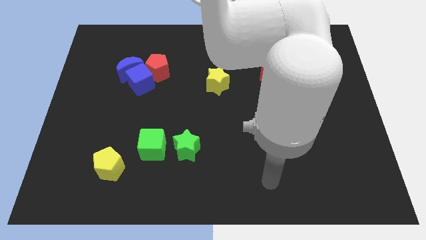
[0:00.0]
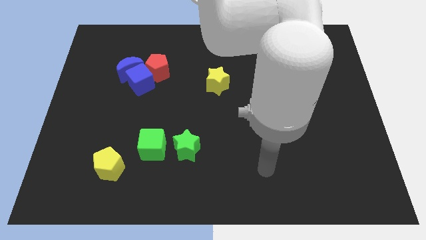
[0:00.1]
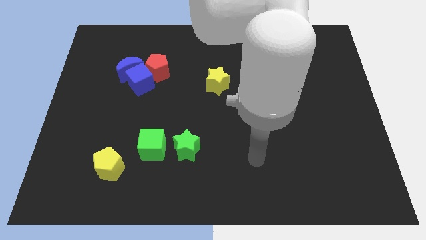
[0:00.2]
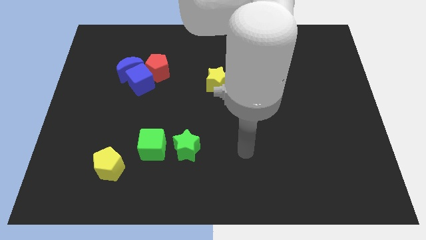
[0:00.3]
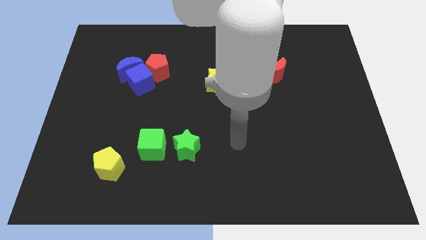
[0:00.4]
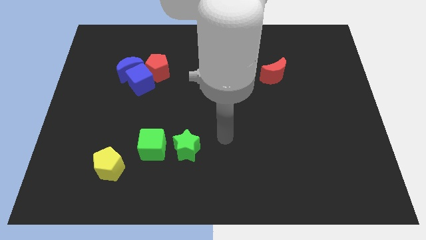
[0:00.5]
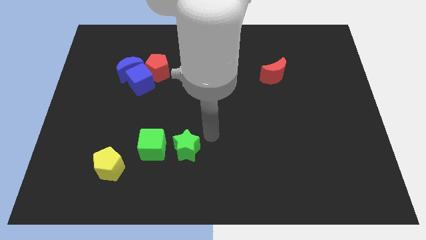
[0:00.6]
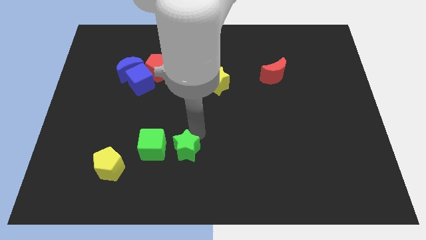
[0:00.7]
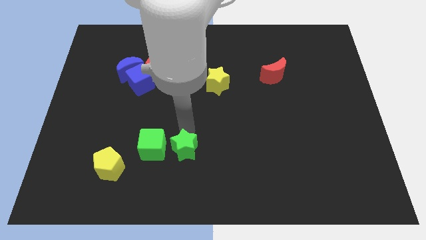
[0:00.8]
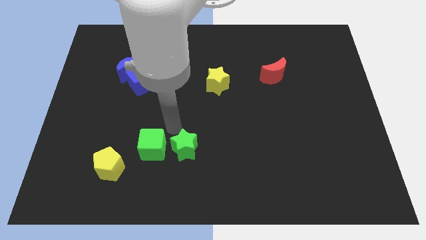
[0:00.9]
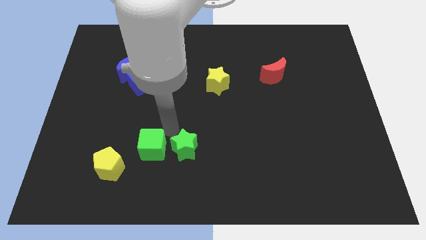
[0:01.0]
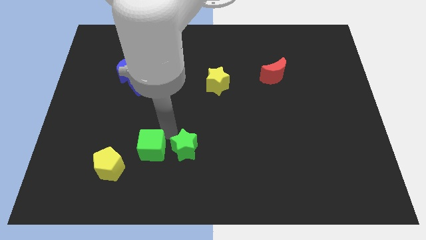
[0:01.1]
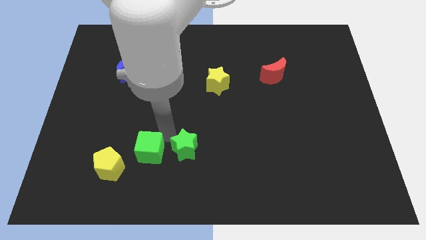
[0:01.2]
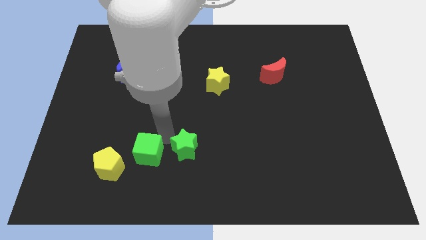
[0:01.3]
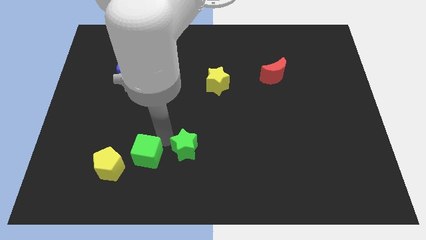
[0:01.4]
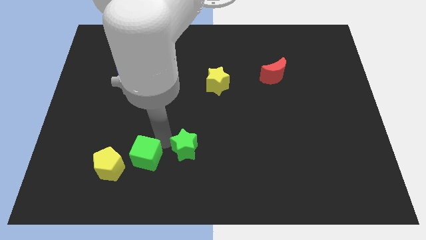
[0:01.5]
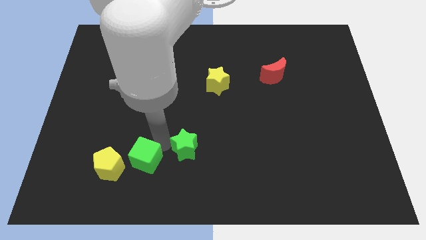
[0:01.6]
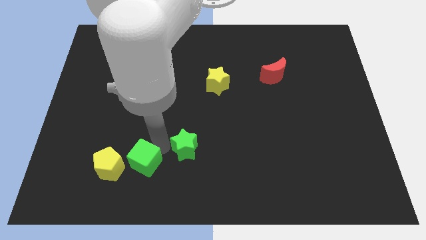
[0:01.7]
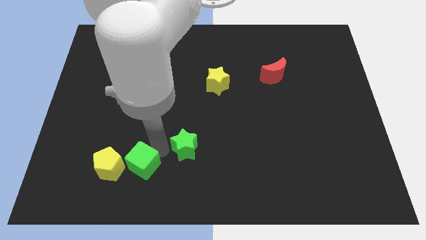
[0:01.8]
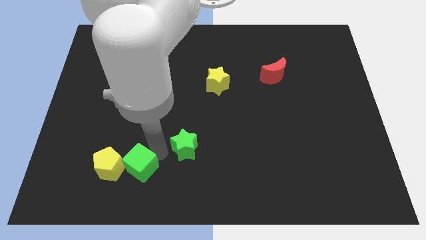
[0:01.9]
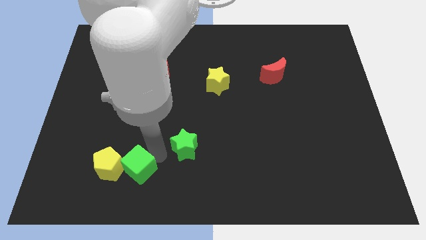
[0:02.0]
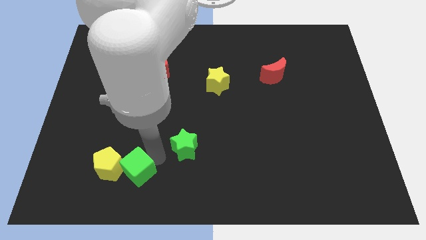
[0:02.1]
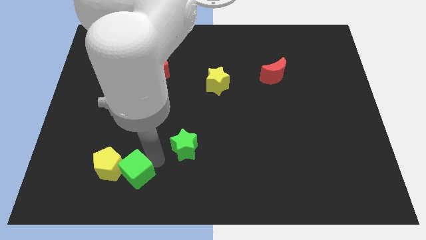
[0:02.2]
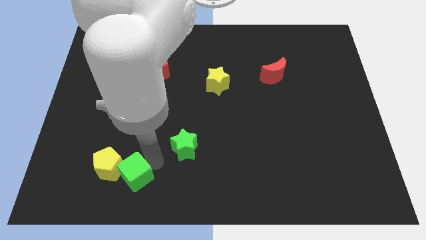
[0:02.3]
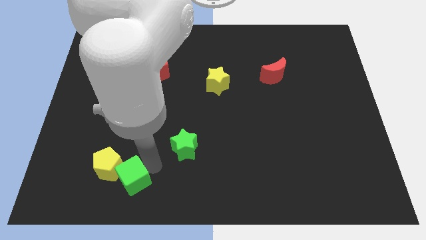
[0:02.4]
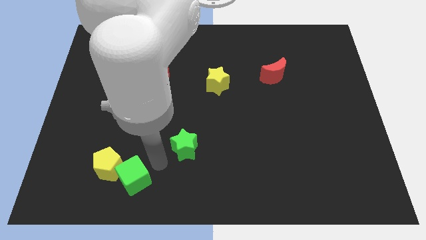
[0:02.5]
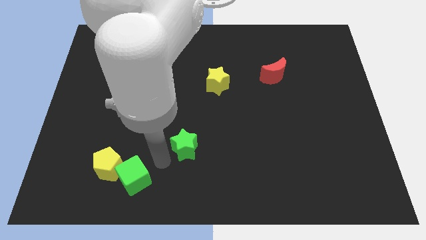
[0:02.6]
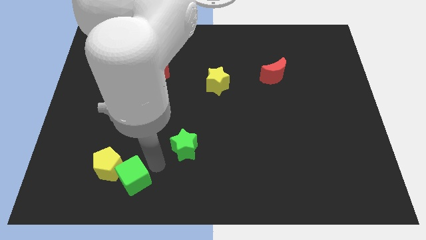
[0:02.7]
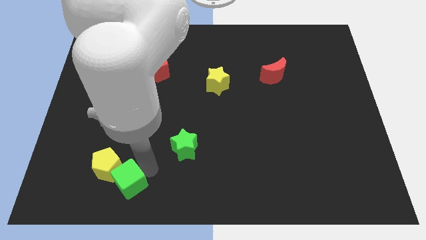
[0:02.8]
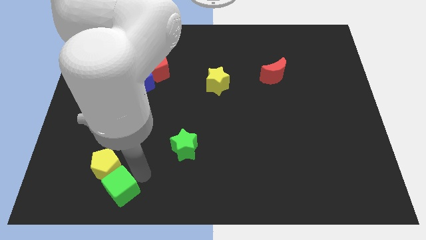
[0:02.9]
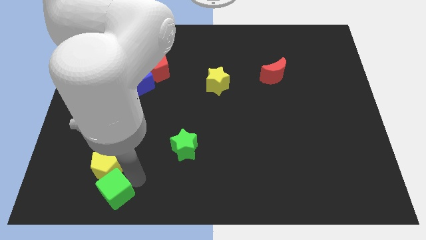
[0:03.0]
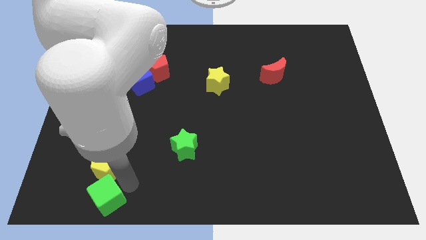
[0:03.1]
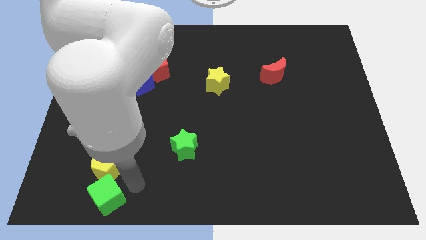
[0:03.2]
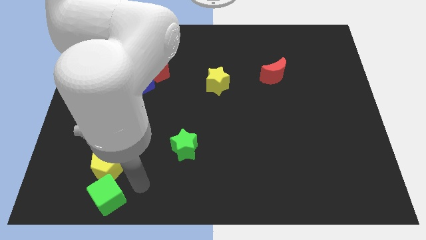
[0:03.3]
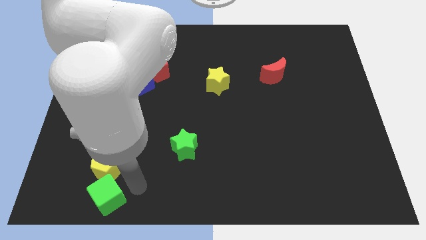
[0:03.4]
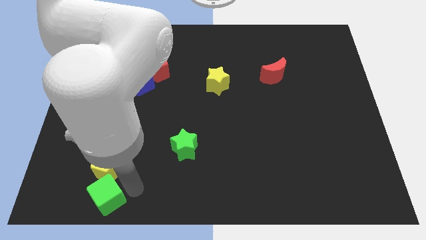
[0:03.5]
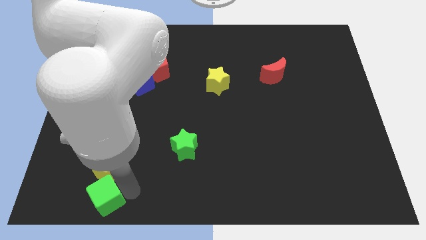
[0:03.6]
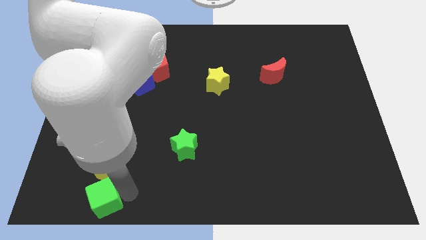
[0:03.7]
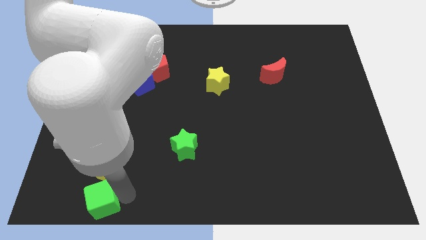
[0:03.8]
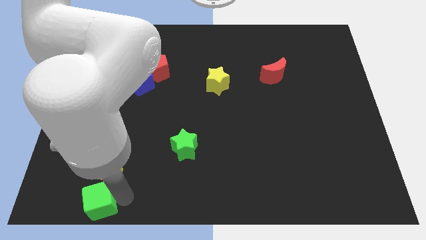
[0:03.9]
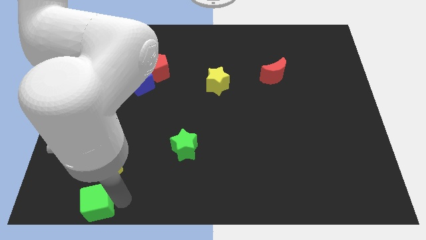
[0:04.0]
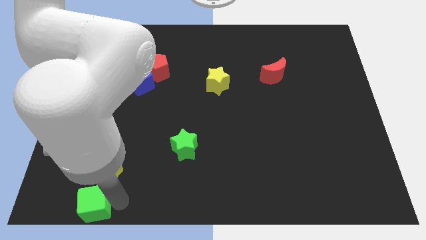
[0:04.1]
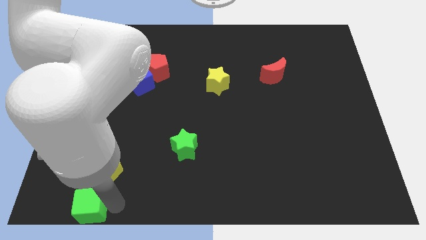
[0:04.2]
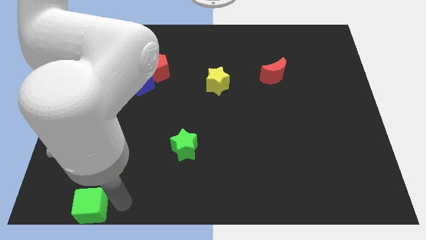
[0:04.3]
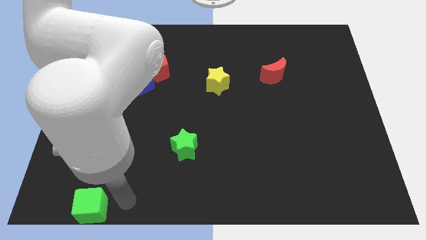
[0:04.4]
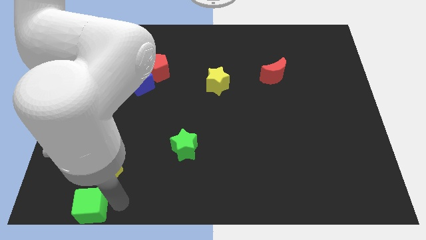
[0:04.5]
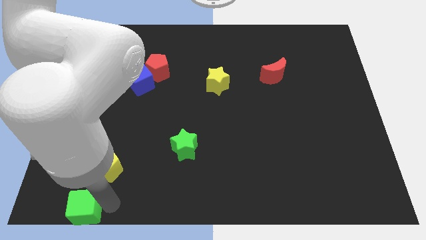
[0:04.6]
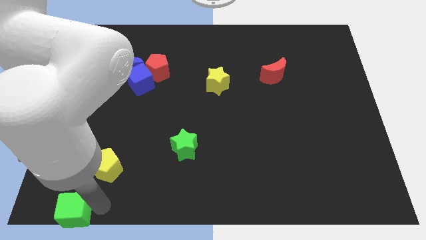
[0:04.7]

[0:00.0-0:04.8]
push the green cube to the bottom left

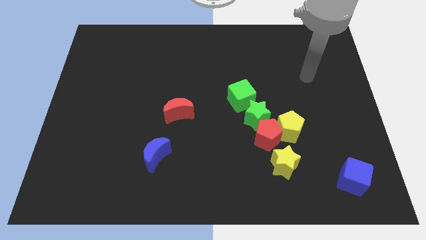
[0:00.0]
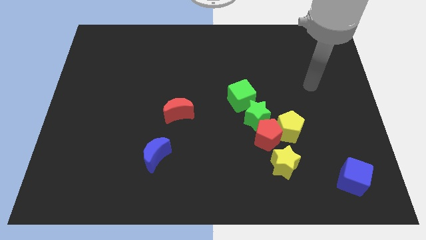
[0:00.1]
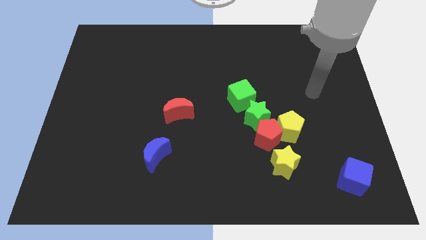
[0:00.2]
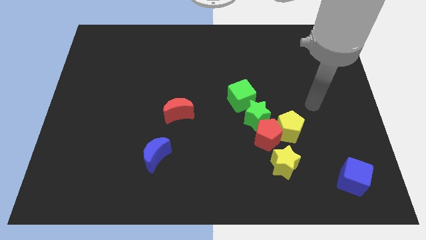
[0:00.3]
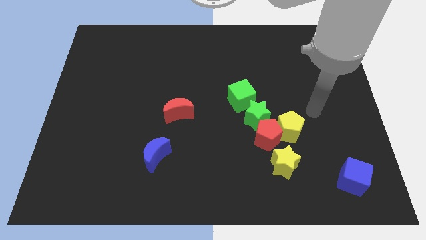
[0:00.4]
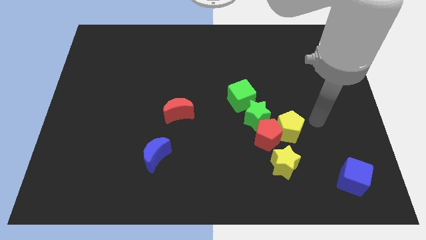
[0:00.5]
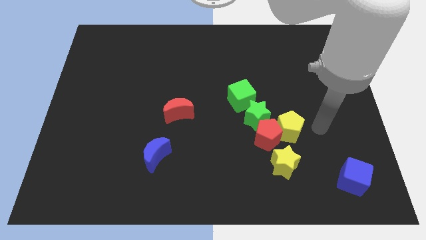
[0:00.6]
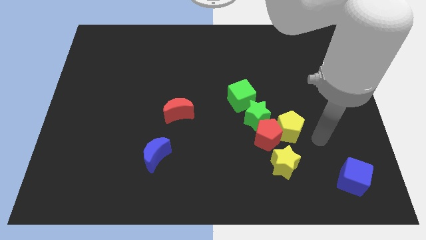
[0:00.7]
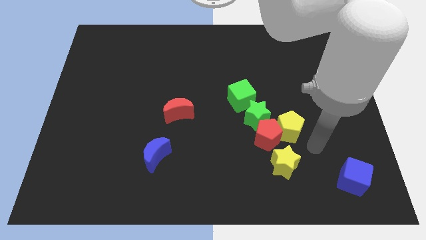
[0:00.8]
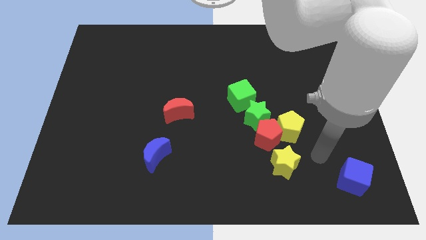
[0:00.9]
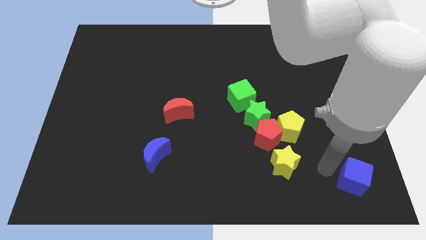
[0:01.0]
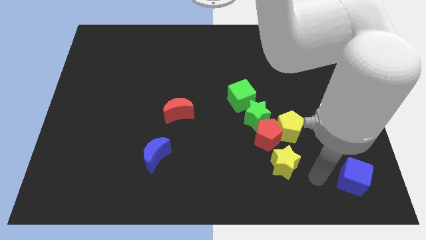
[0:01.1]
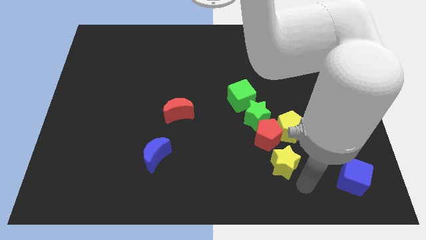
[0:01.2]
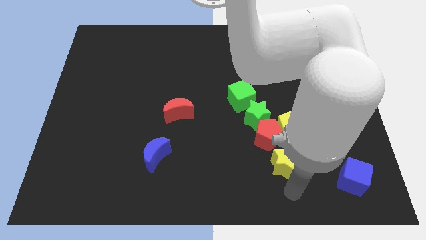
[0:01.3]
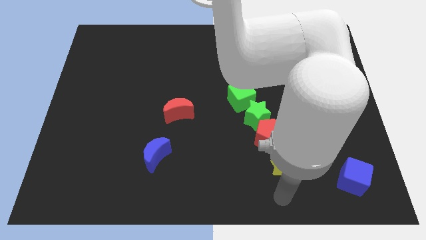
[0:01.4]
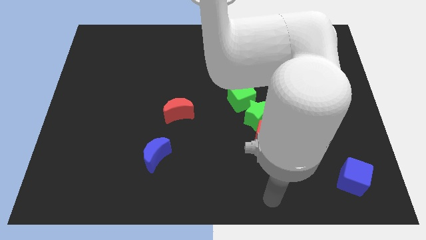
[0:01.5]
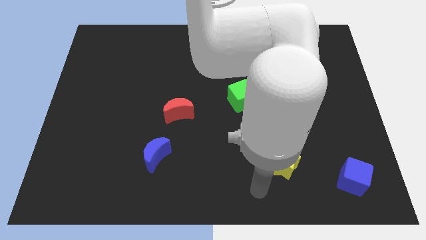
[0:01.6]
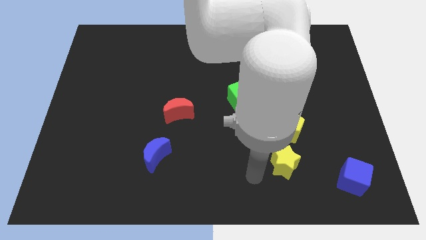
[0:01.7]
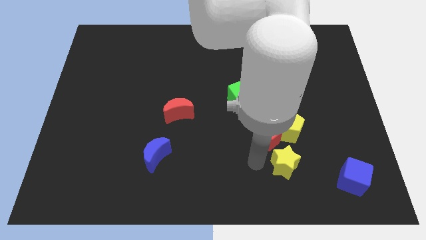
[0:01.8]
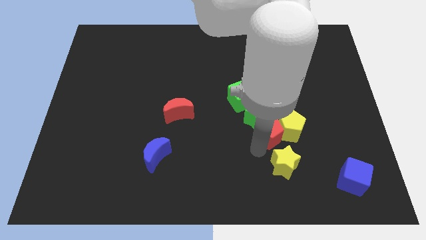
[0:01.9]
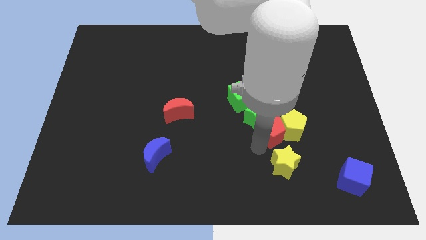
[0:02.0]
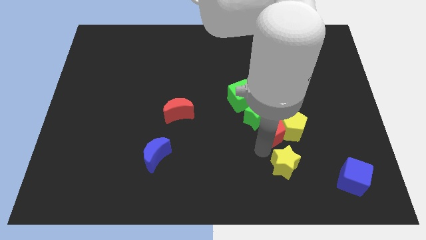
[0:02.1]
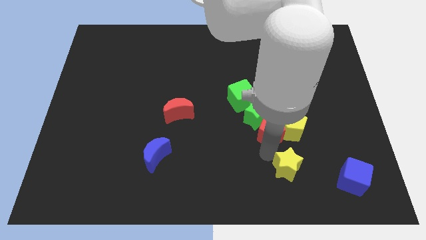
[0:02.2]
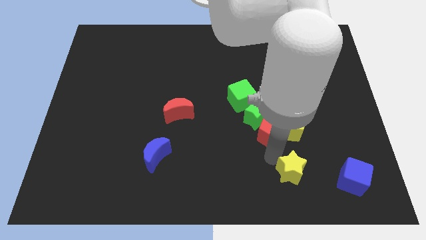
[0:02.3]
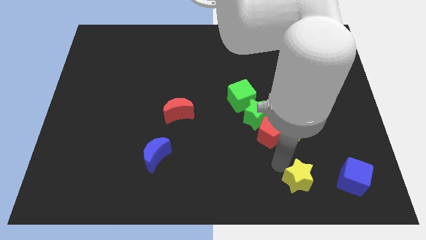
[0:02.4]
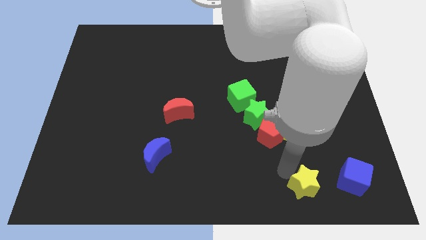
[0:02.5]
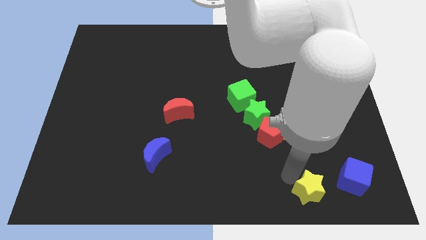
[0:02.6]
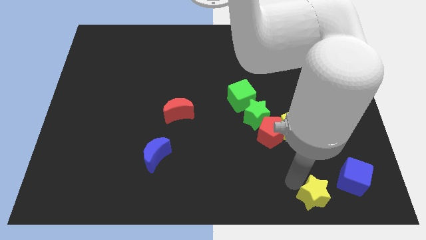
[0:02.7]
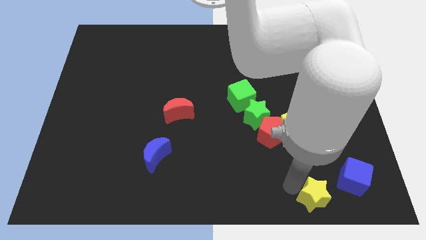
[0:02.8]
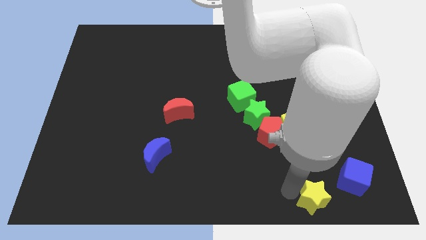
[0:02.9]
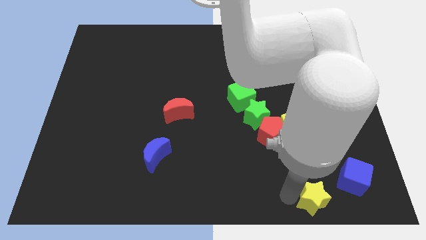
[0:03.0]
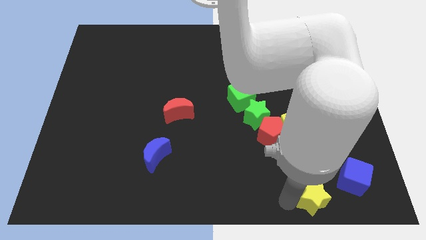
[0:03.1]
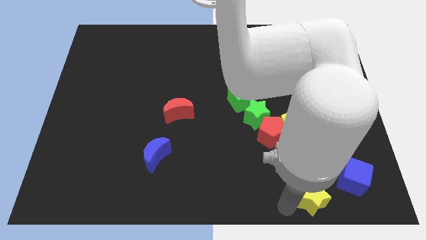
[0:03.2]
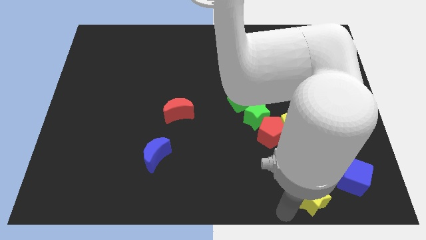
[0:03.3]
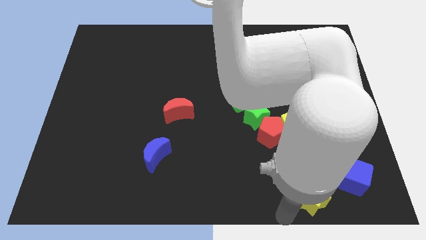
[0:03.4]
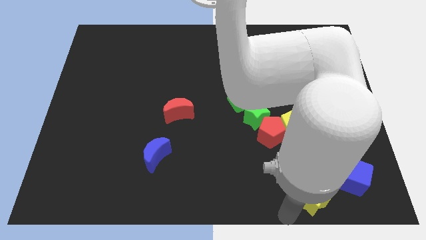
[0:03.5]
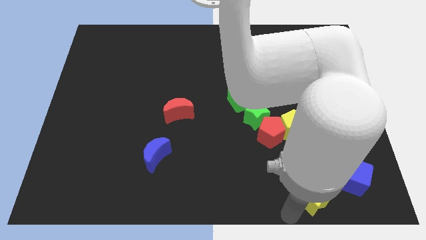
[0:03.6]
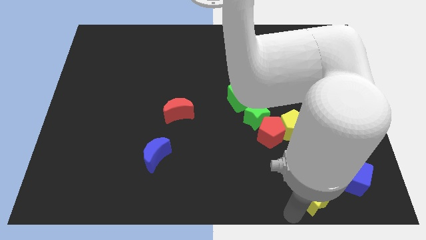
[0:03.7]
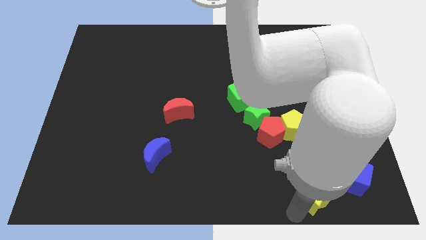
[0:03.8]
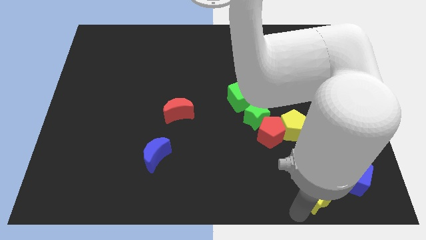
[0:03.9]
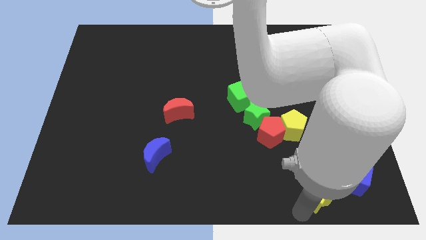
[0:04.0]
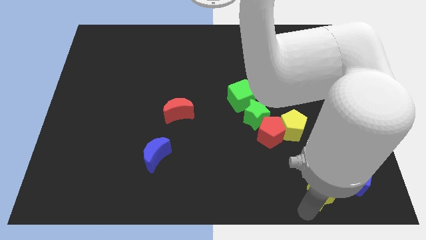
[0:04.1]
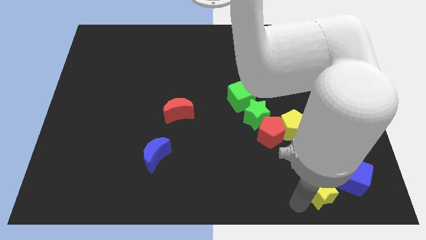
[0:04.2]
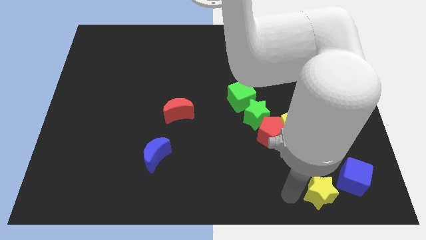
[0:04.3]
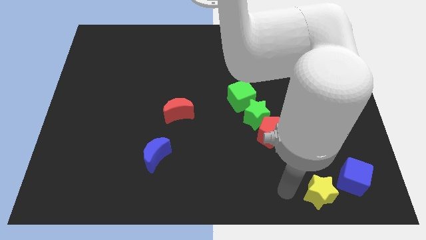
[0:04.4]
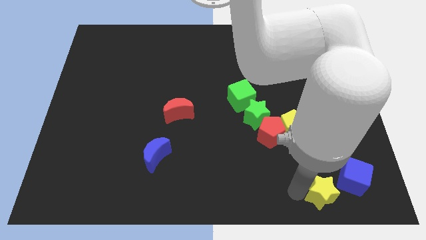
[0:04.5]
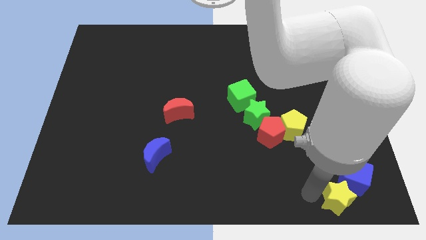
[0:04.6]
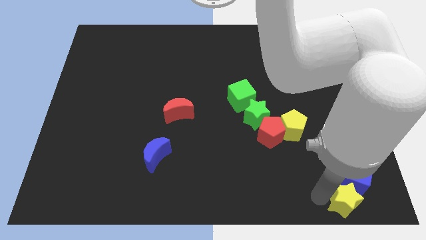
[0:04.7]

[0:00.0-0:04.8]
push the yellow star to the bottom right
